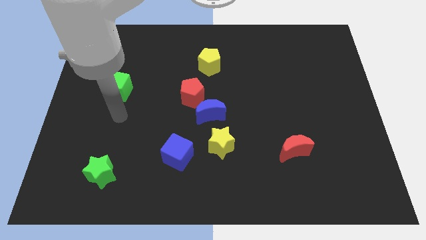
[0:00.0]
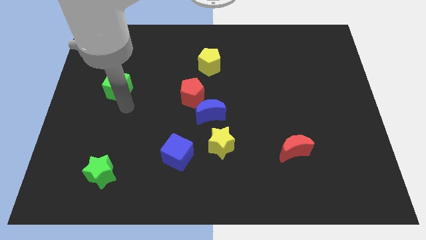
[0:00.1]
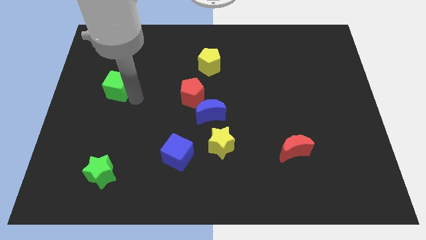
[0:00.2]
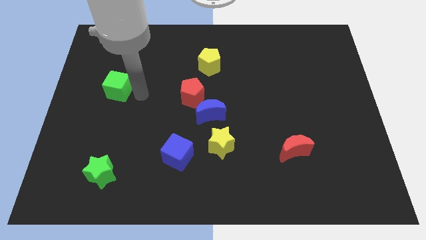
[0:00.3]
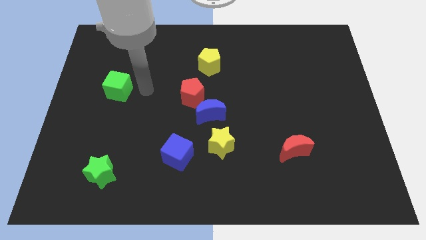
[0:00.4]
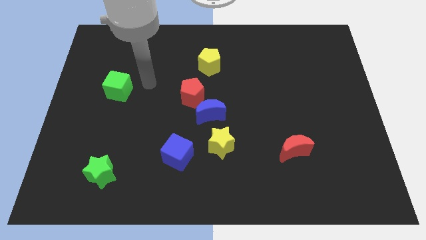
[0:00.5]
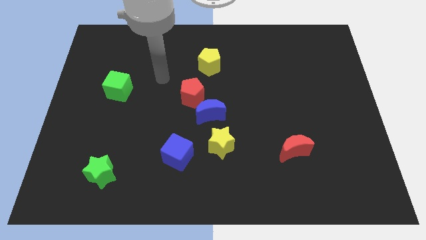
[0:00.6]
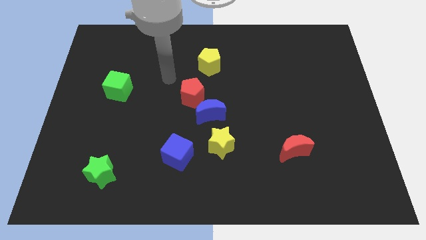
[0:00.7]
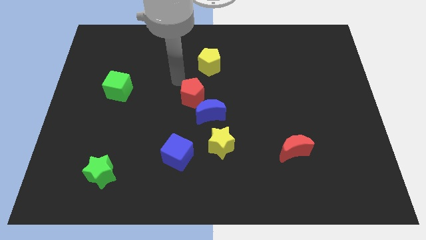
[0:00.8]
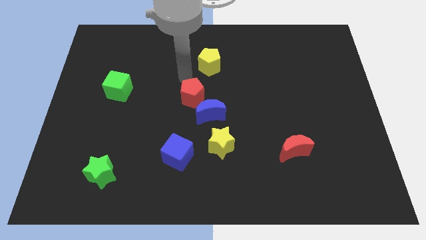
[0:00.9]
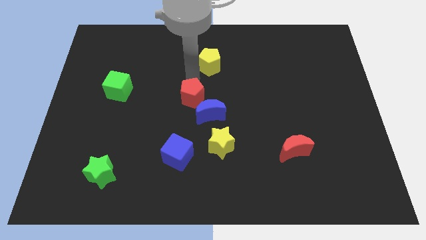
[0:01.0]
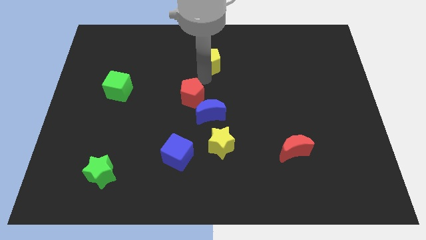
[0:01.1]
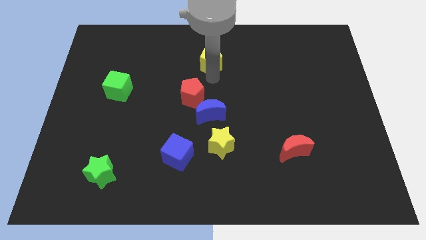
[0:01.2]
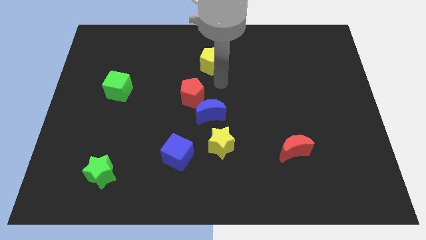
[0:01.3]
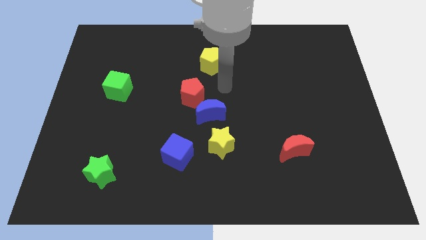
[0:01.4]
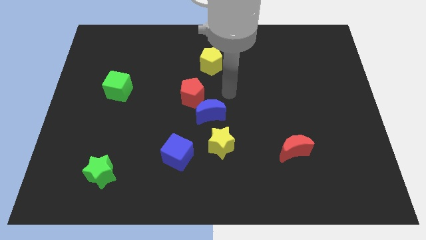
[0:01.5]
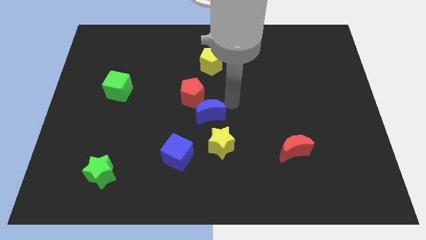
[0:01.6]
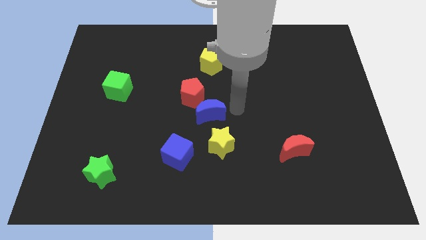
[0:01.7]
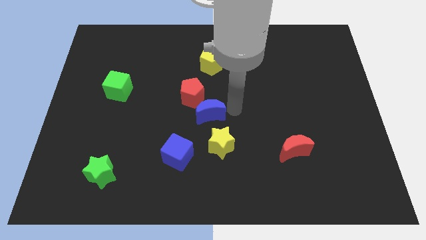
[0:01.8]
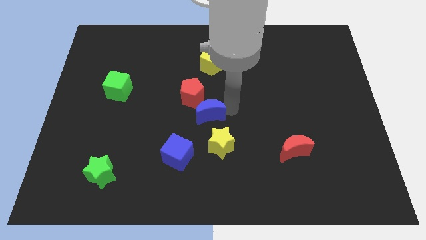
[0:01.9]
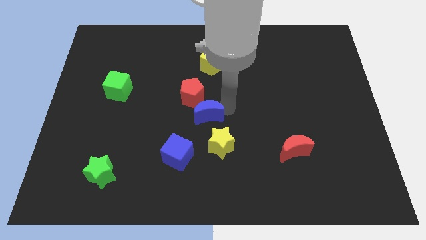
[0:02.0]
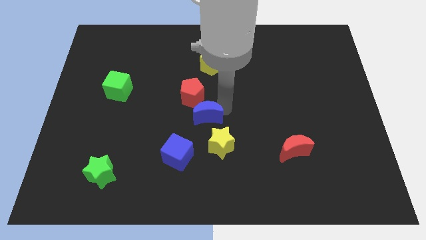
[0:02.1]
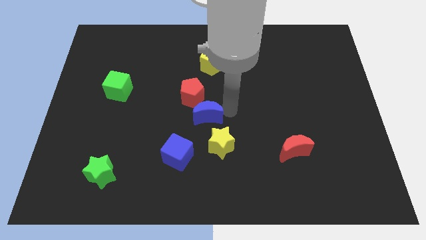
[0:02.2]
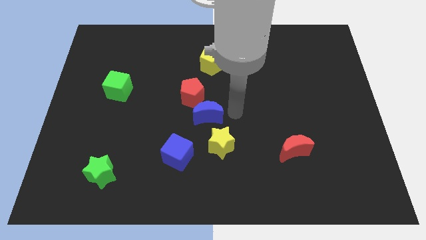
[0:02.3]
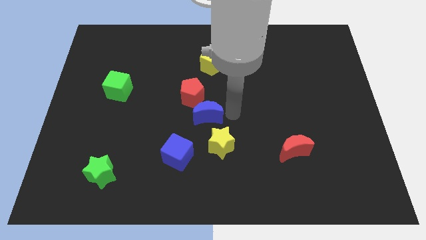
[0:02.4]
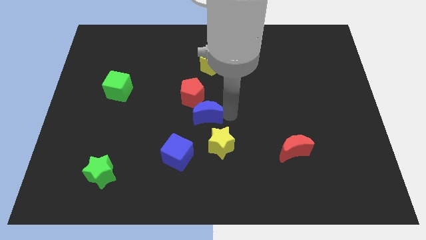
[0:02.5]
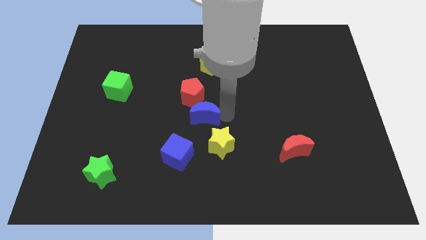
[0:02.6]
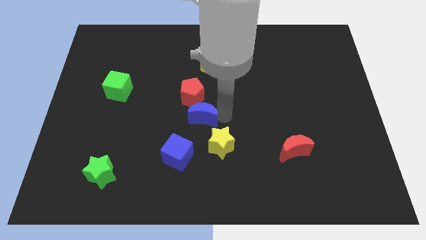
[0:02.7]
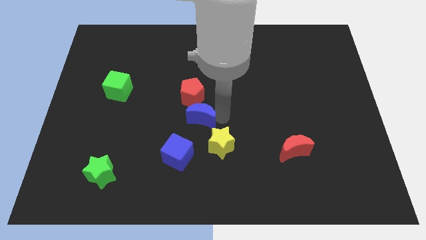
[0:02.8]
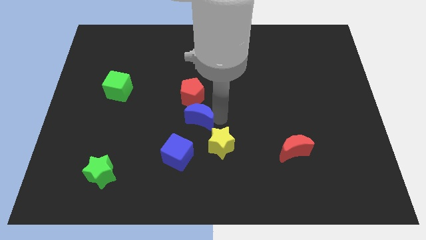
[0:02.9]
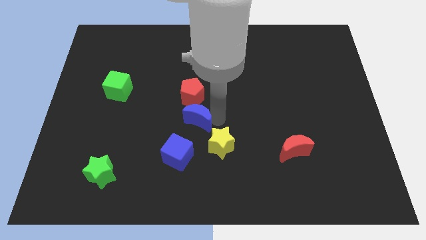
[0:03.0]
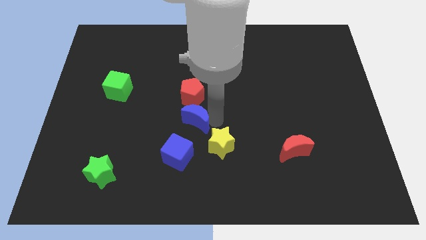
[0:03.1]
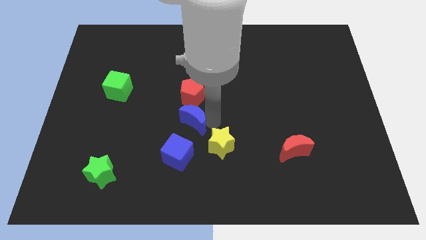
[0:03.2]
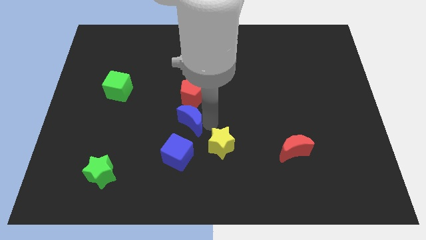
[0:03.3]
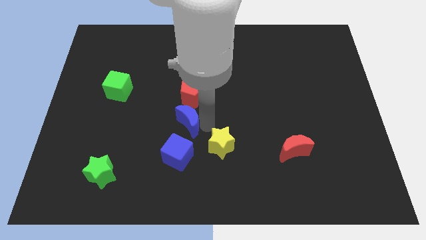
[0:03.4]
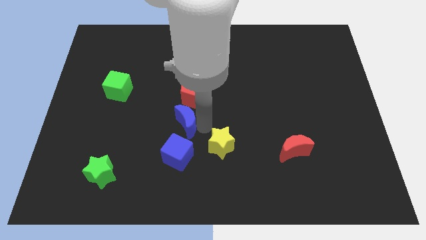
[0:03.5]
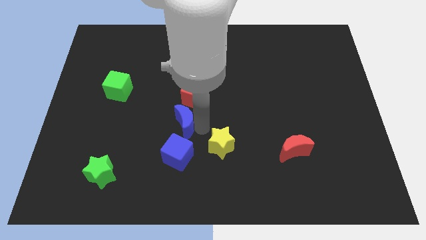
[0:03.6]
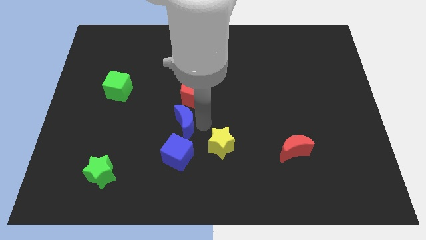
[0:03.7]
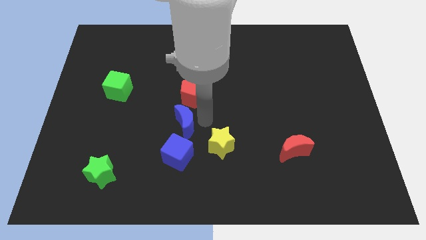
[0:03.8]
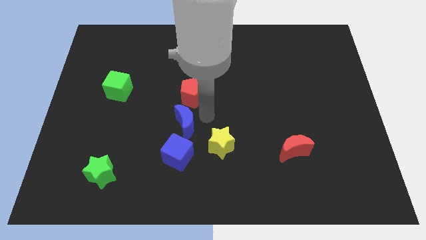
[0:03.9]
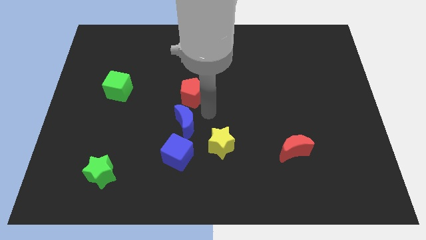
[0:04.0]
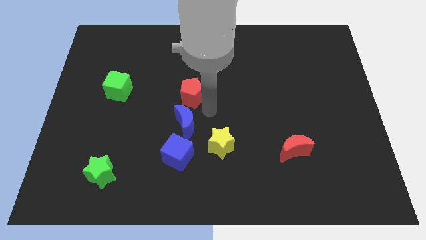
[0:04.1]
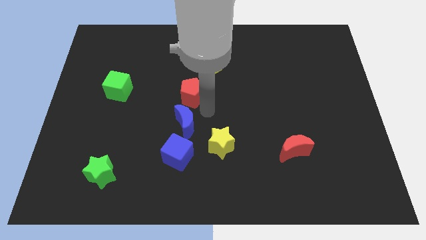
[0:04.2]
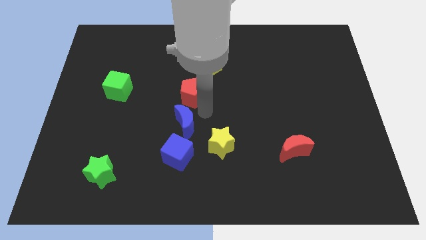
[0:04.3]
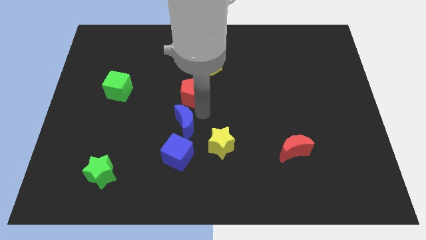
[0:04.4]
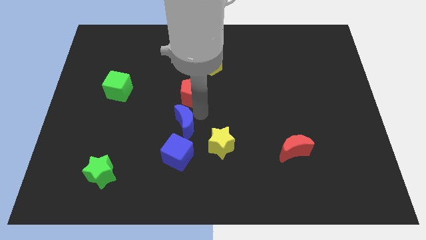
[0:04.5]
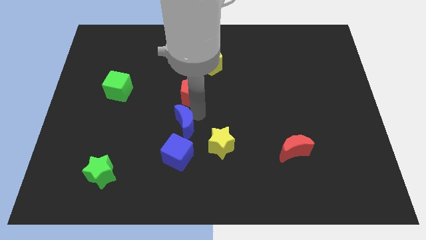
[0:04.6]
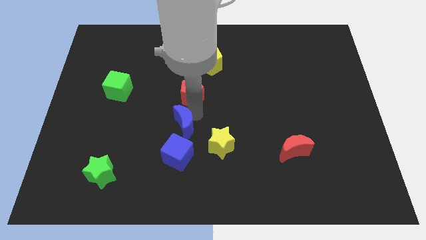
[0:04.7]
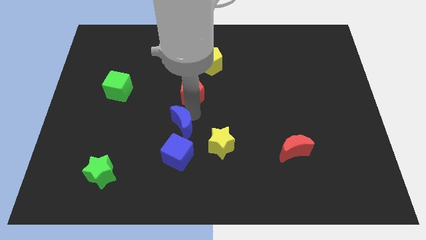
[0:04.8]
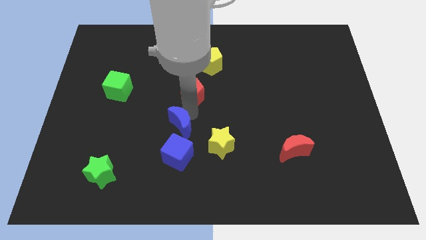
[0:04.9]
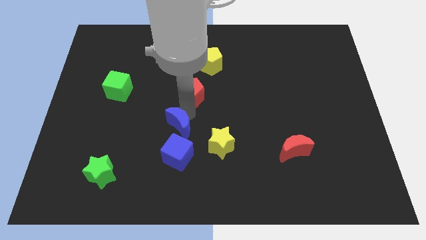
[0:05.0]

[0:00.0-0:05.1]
slide the blue moon a little bit downwards and to the left

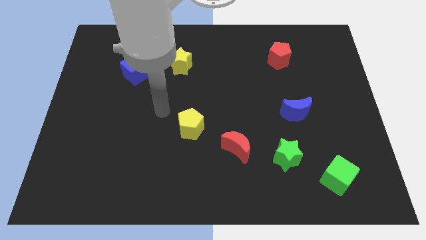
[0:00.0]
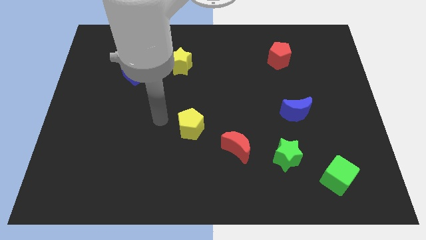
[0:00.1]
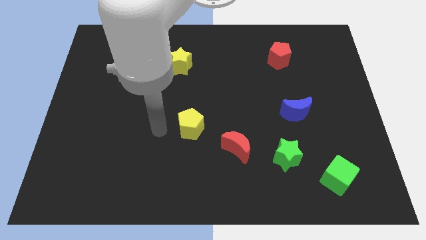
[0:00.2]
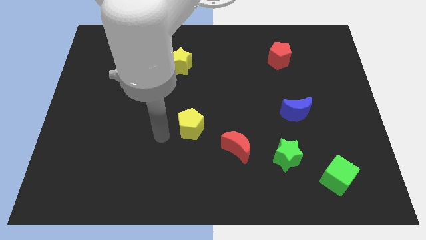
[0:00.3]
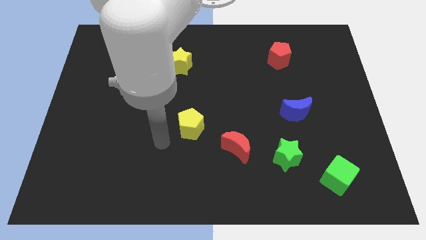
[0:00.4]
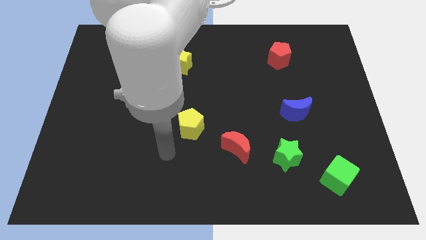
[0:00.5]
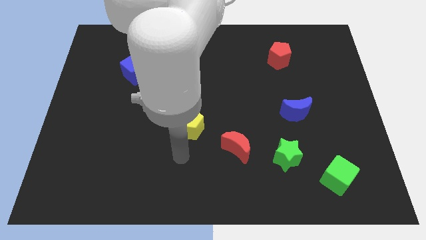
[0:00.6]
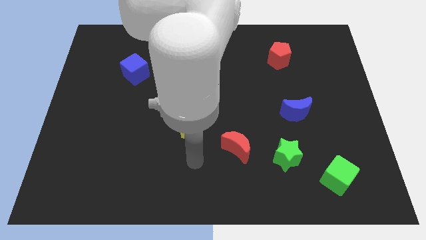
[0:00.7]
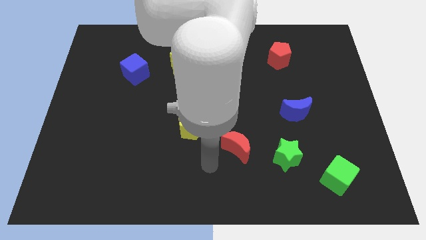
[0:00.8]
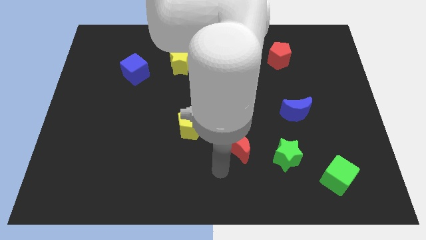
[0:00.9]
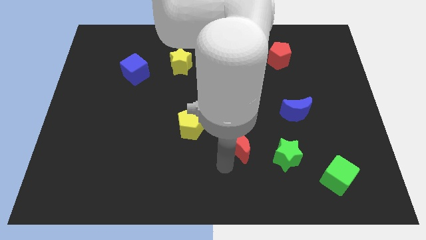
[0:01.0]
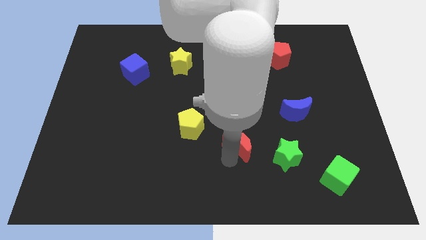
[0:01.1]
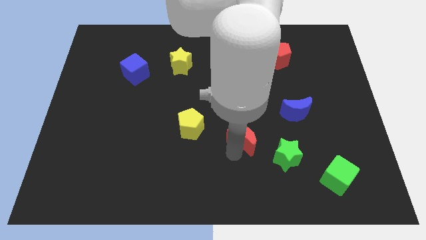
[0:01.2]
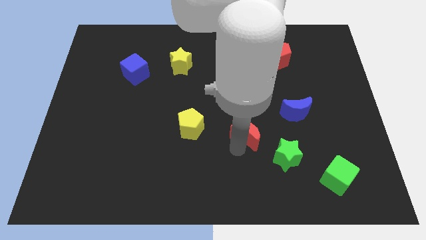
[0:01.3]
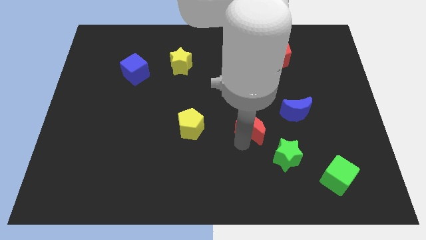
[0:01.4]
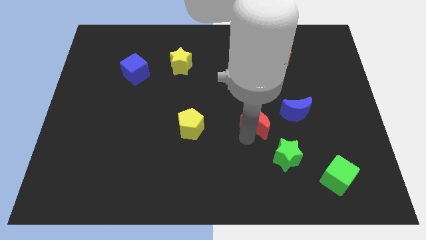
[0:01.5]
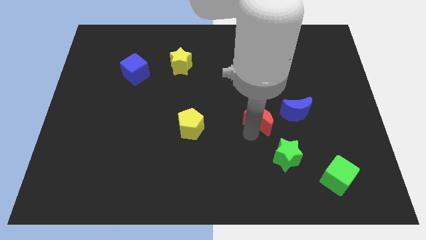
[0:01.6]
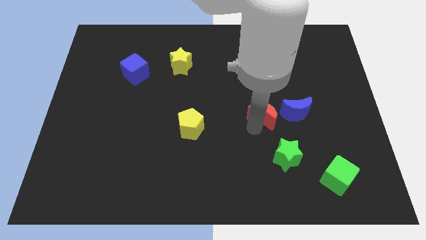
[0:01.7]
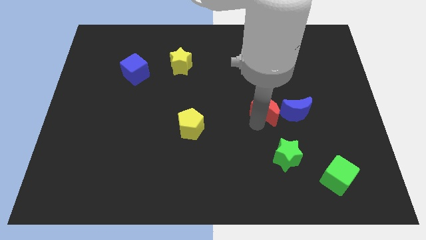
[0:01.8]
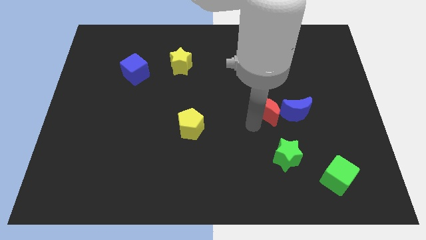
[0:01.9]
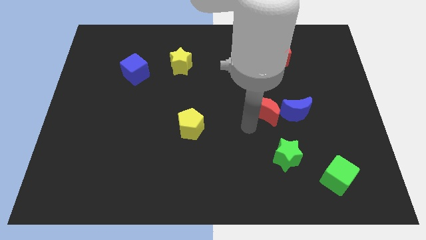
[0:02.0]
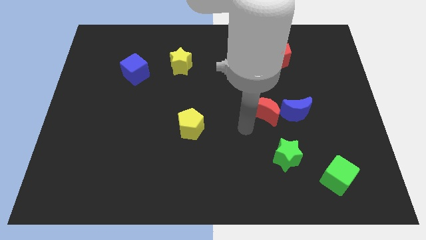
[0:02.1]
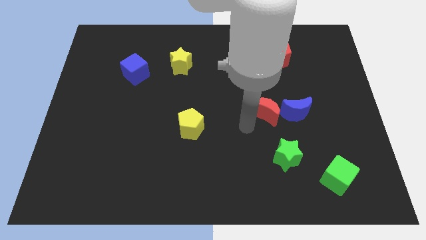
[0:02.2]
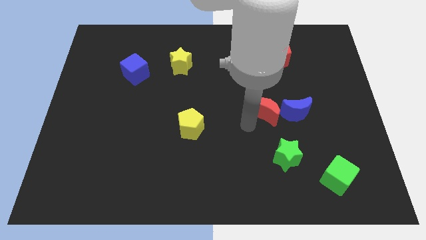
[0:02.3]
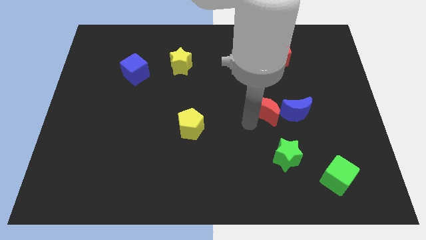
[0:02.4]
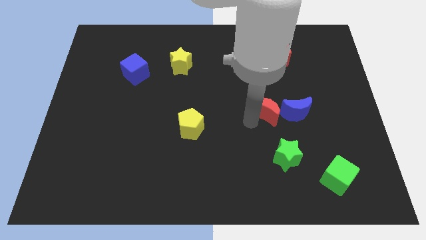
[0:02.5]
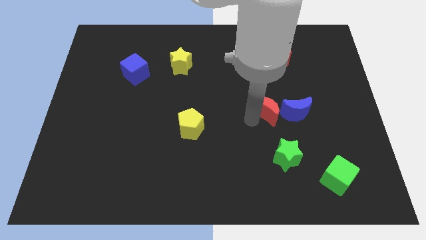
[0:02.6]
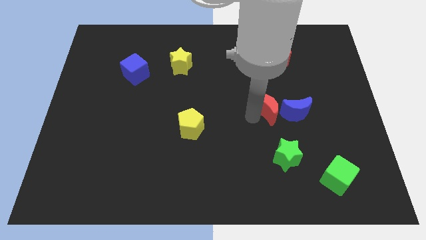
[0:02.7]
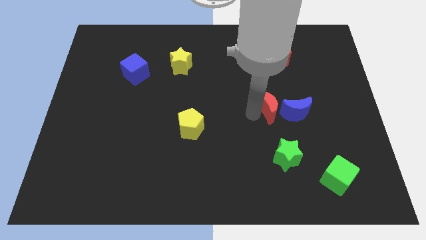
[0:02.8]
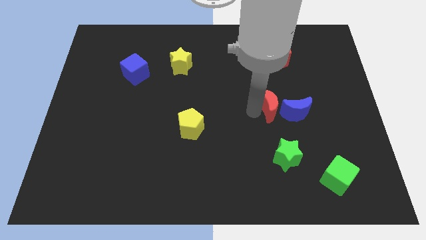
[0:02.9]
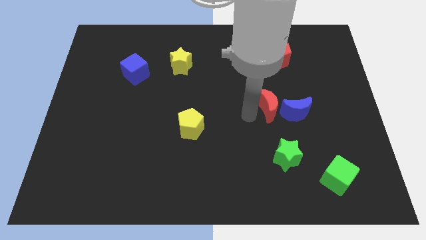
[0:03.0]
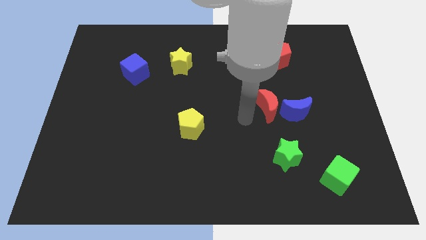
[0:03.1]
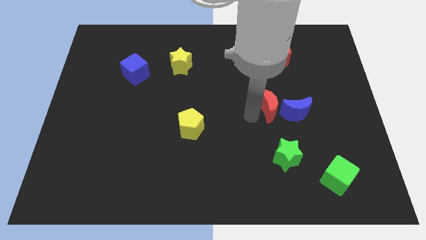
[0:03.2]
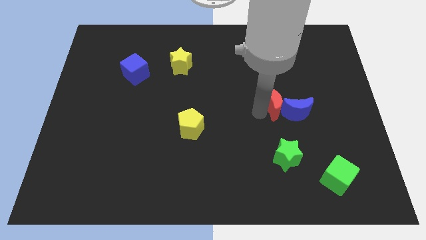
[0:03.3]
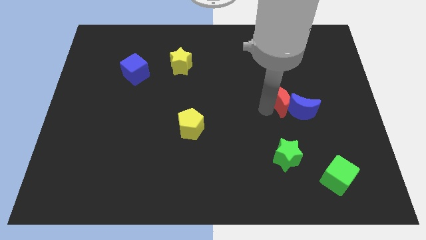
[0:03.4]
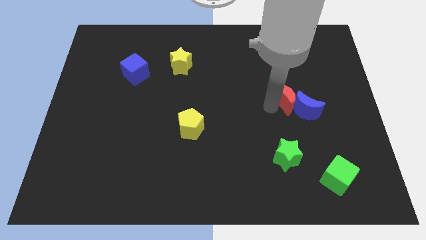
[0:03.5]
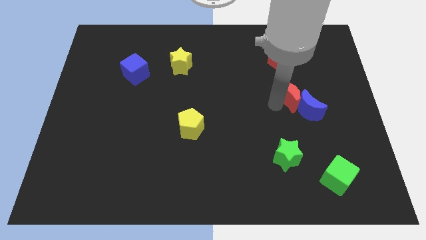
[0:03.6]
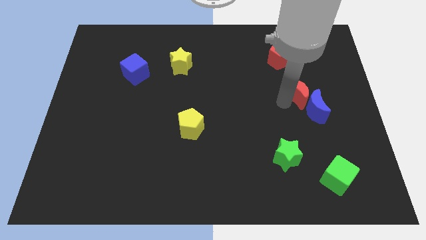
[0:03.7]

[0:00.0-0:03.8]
move the red moon up and right diagonally
